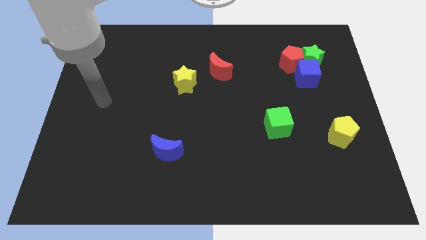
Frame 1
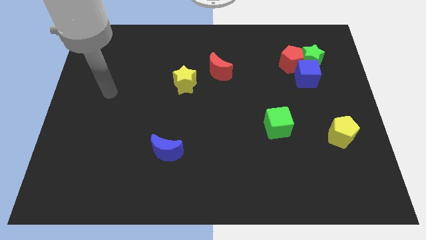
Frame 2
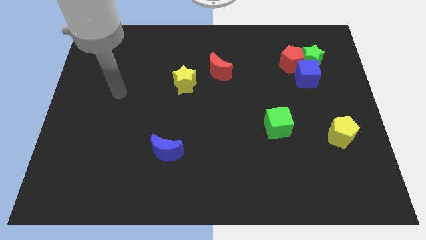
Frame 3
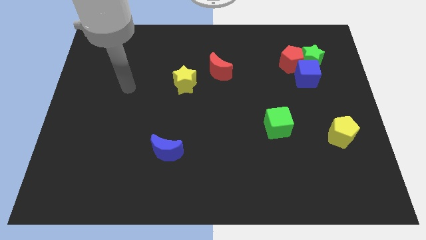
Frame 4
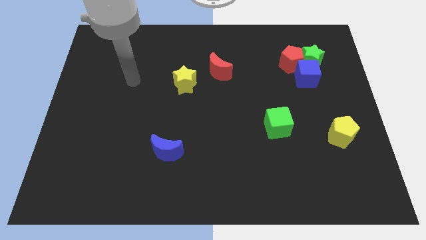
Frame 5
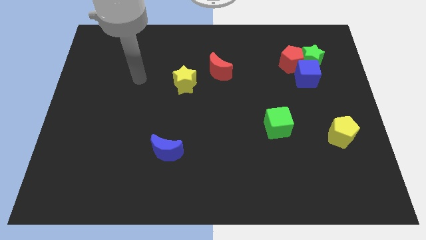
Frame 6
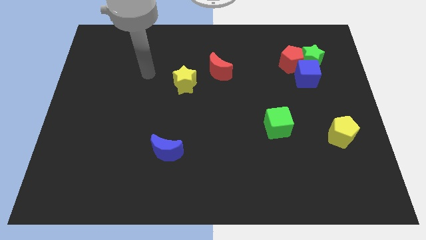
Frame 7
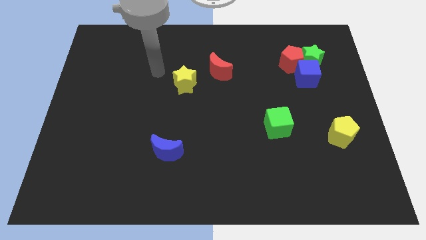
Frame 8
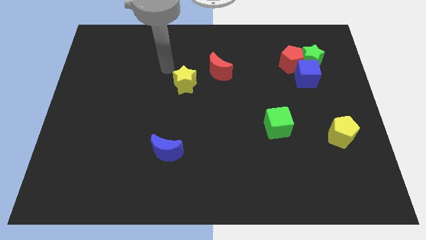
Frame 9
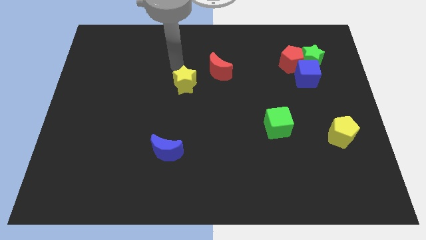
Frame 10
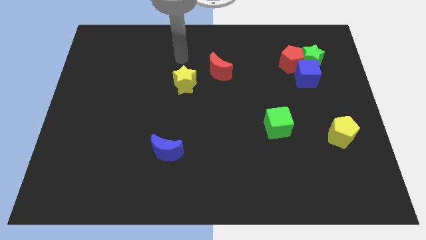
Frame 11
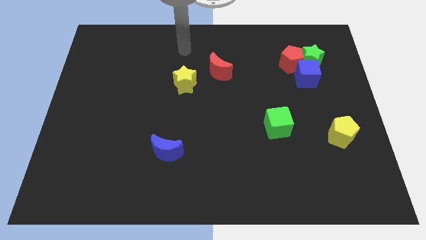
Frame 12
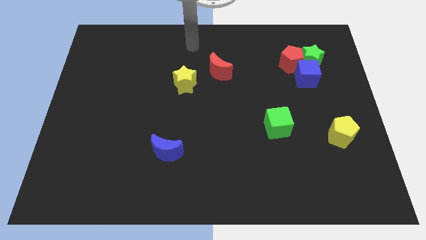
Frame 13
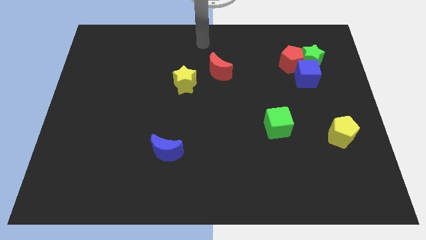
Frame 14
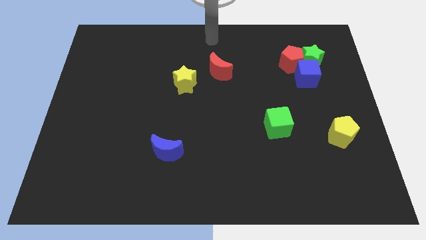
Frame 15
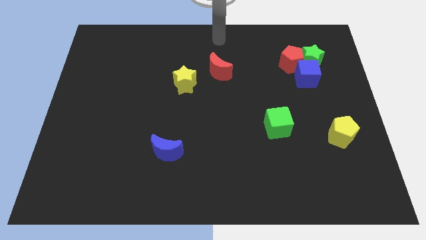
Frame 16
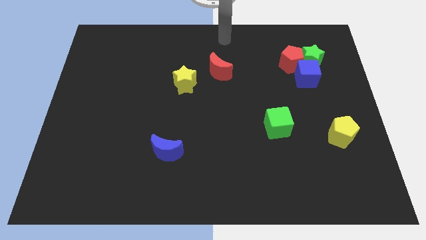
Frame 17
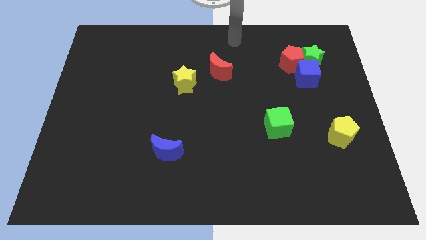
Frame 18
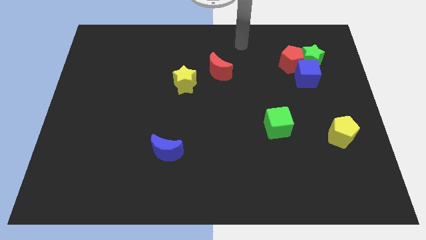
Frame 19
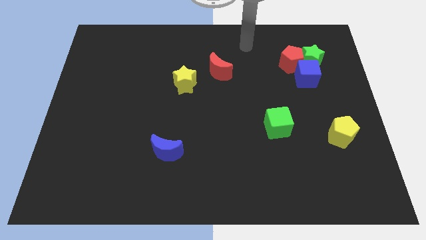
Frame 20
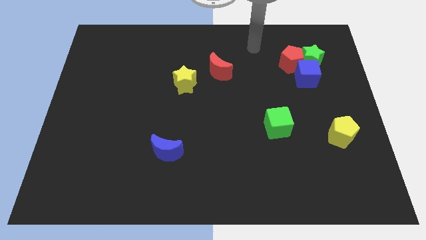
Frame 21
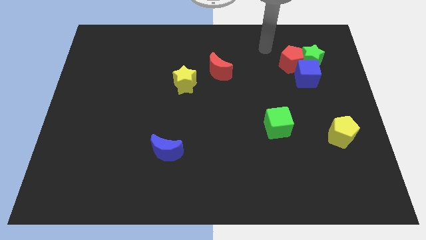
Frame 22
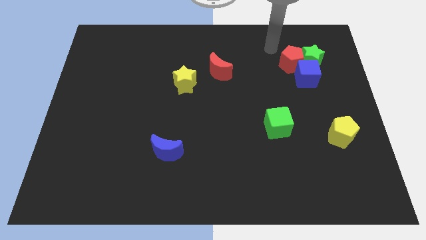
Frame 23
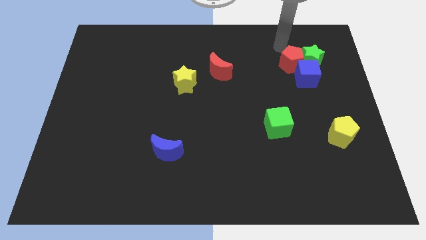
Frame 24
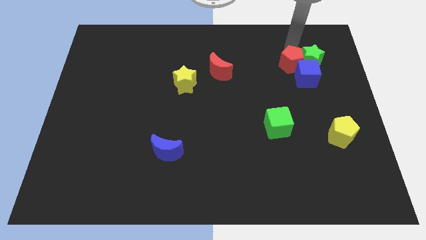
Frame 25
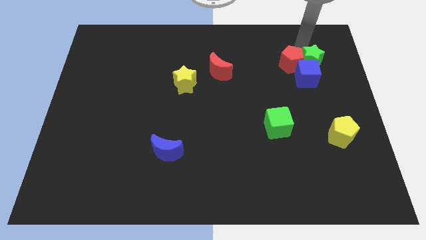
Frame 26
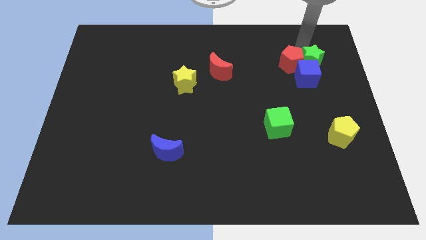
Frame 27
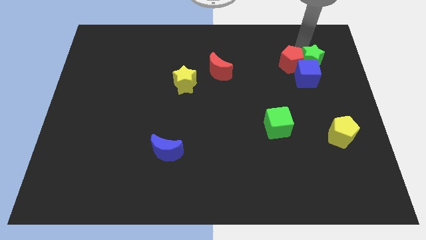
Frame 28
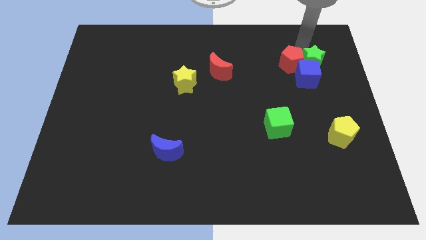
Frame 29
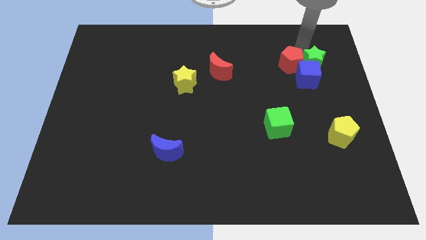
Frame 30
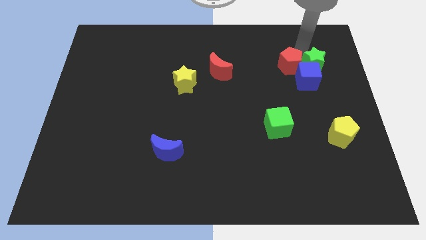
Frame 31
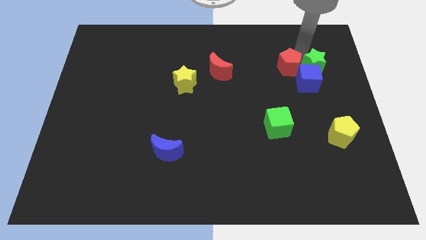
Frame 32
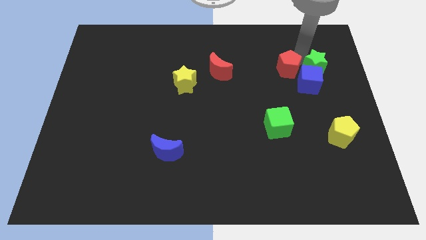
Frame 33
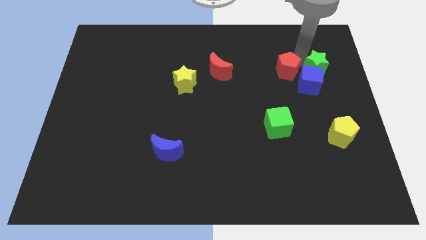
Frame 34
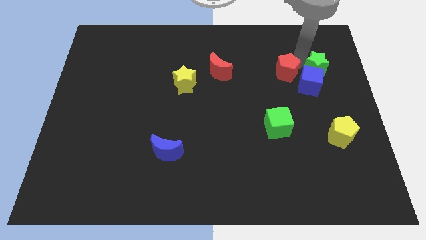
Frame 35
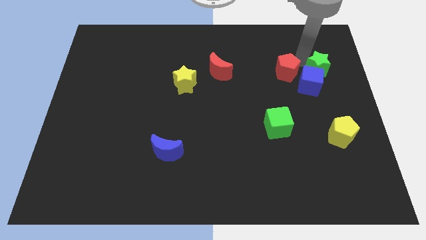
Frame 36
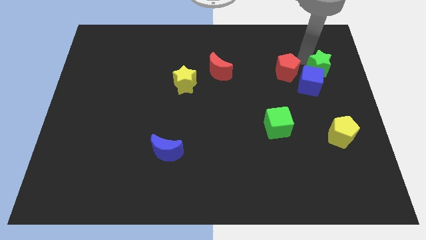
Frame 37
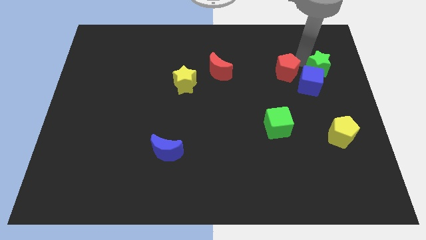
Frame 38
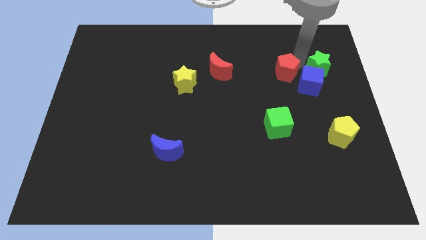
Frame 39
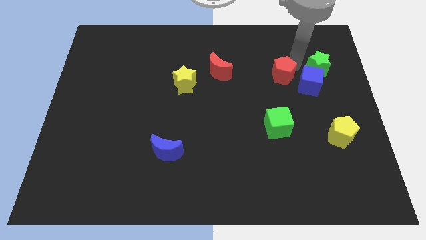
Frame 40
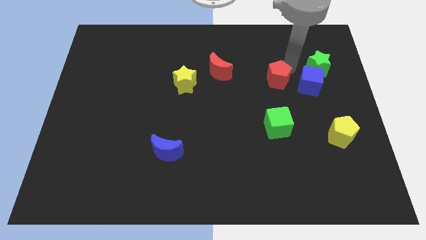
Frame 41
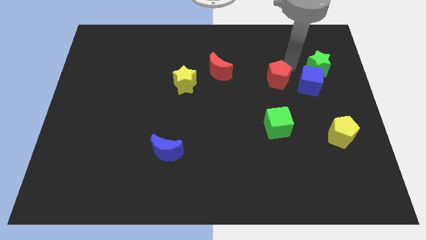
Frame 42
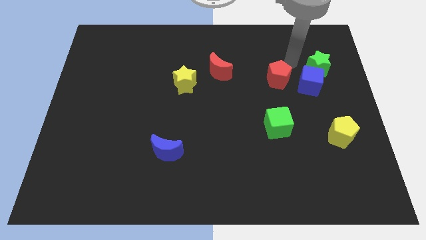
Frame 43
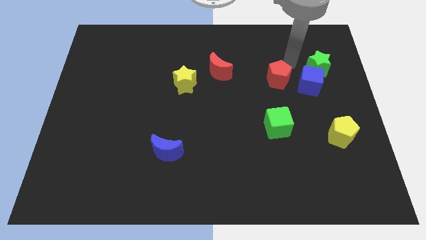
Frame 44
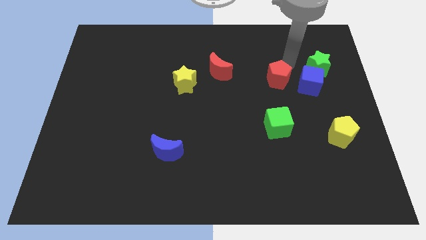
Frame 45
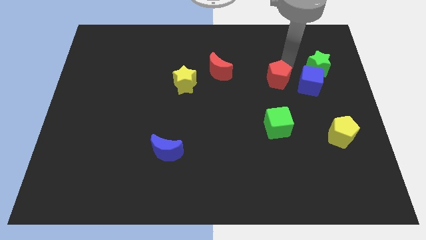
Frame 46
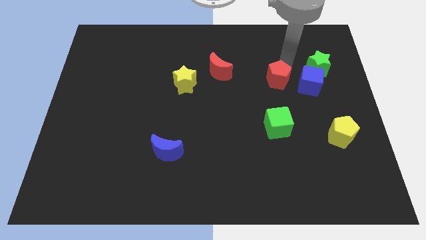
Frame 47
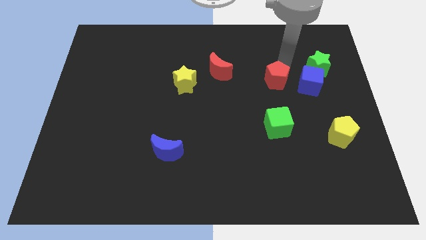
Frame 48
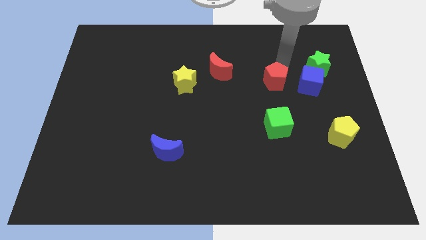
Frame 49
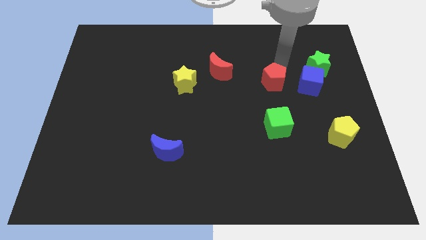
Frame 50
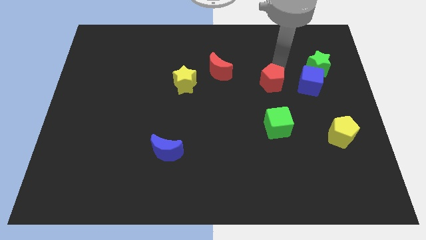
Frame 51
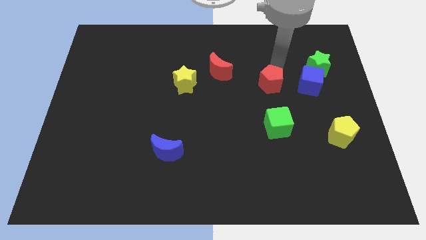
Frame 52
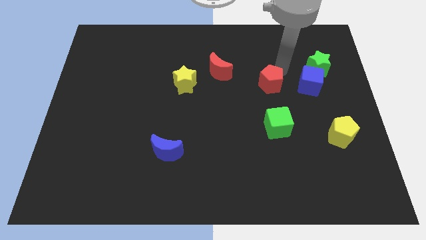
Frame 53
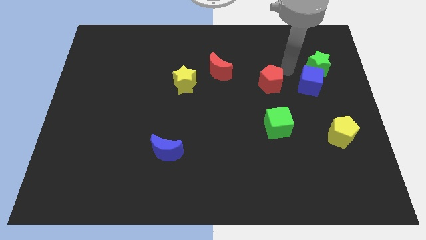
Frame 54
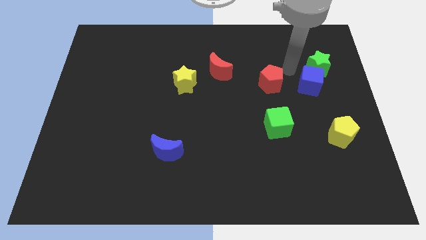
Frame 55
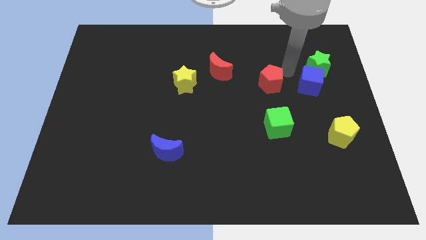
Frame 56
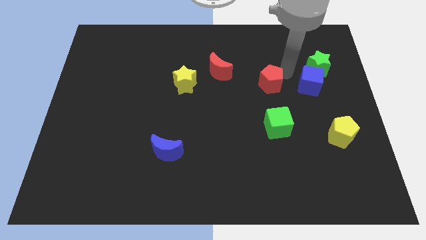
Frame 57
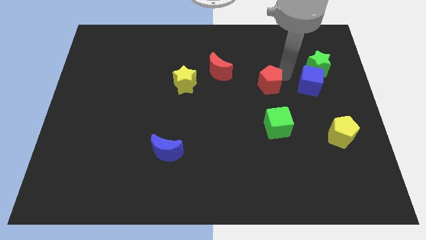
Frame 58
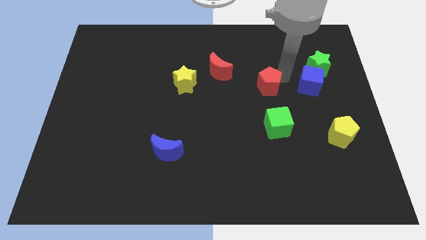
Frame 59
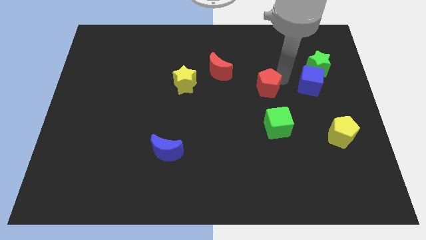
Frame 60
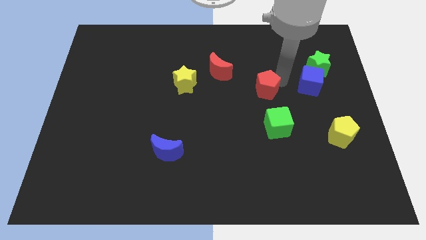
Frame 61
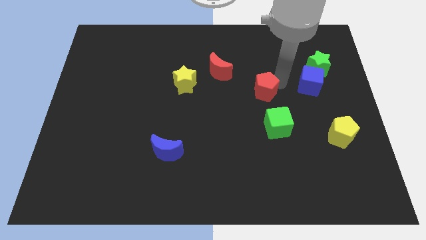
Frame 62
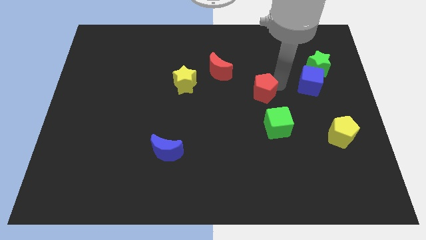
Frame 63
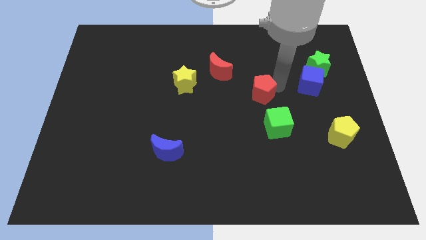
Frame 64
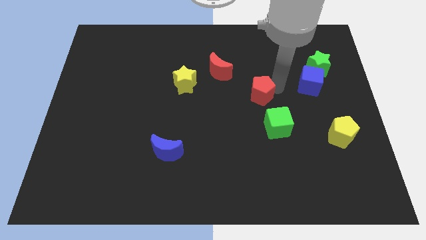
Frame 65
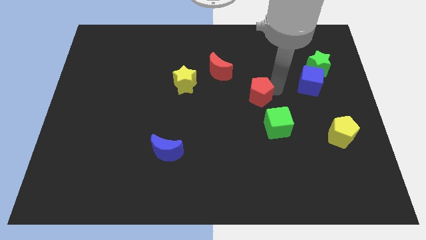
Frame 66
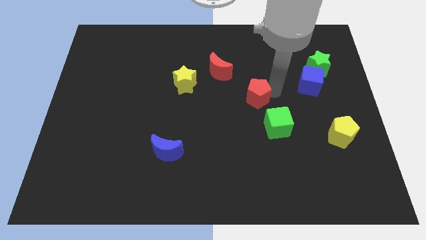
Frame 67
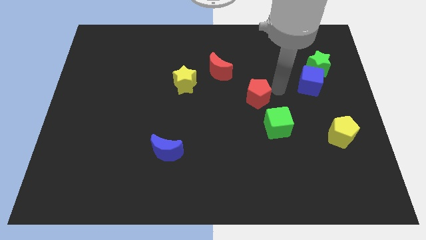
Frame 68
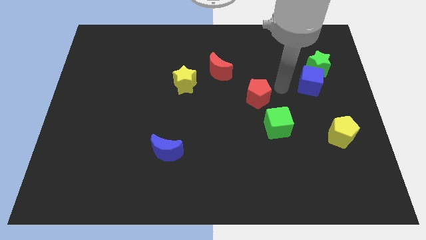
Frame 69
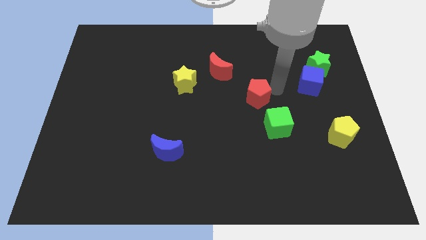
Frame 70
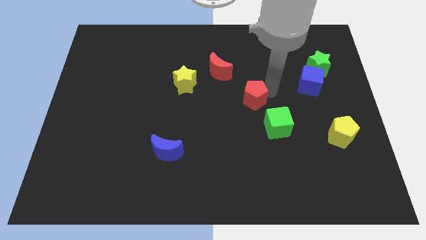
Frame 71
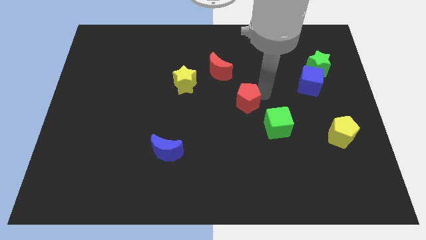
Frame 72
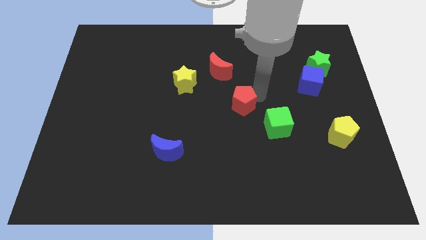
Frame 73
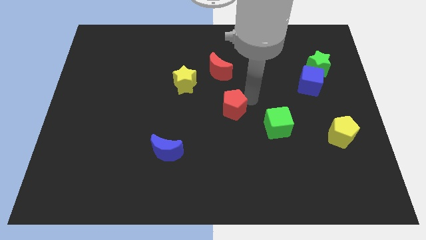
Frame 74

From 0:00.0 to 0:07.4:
push the red pentagon diagonally downwards and left

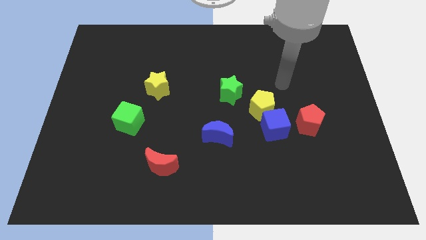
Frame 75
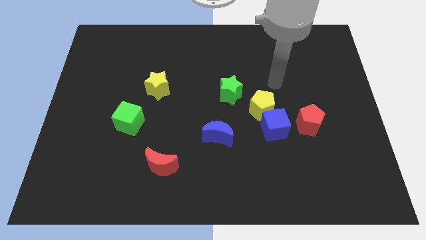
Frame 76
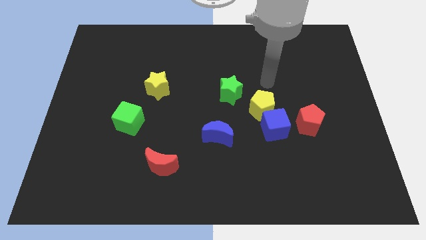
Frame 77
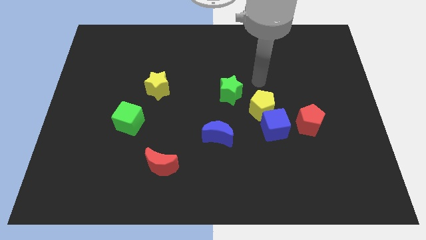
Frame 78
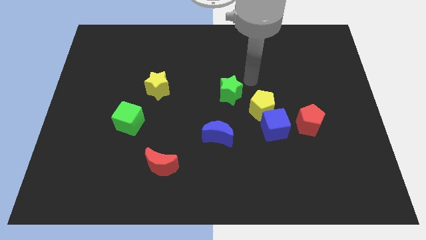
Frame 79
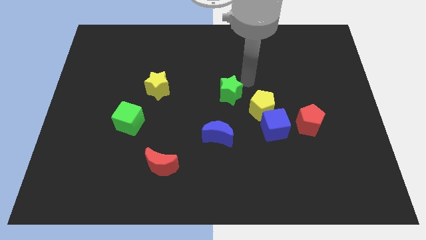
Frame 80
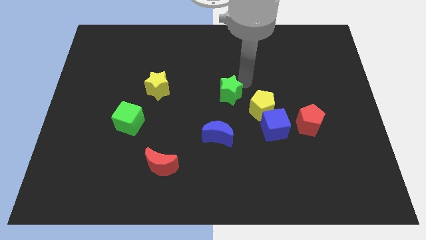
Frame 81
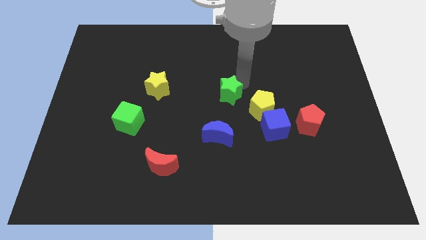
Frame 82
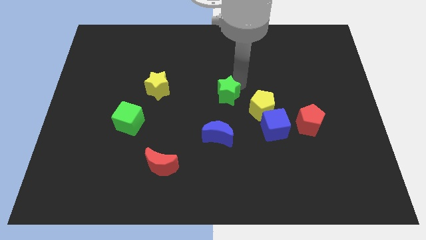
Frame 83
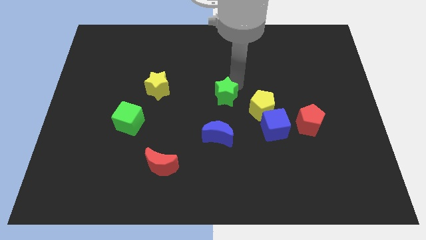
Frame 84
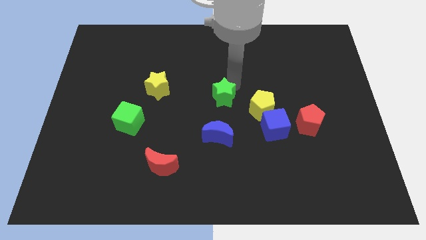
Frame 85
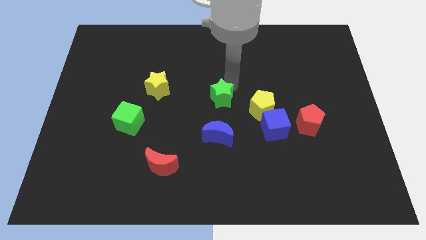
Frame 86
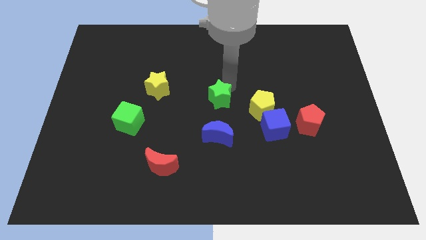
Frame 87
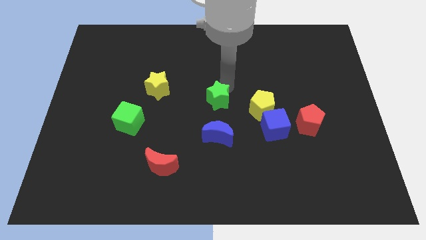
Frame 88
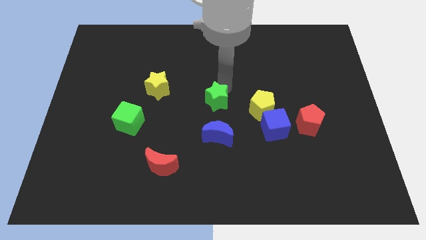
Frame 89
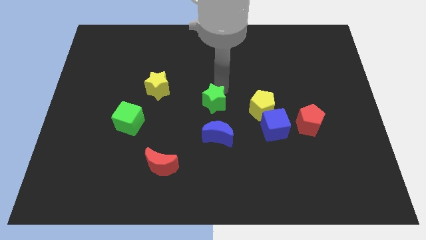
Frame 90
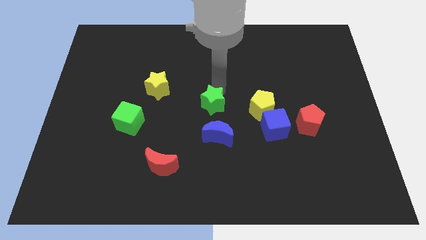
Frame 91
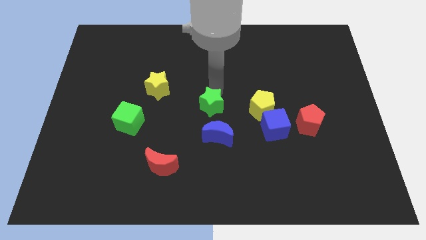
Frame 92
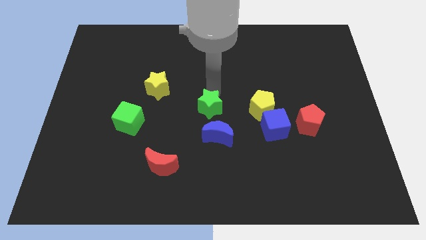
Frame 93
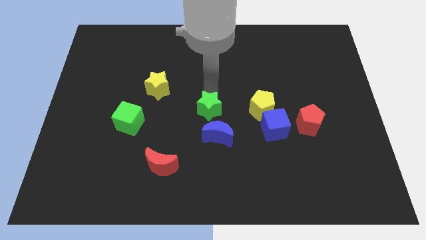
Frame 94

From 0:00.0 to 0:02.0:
slightly move the green star downwards and then left
